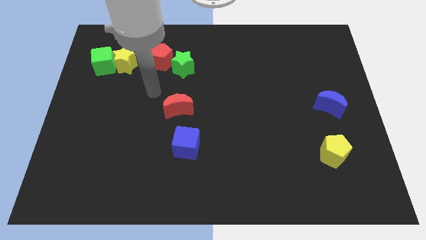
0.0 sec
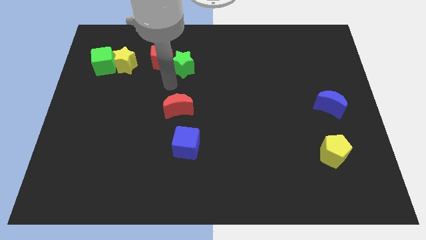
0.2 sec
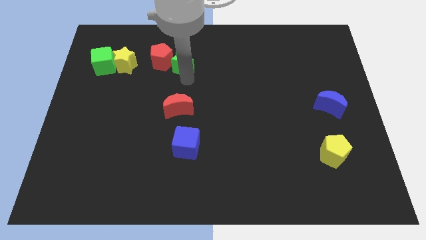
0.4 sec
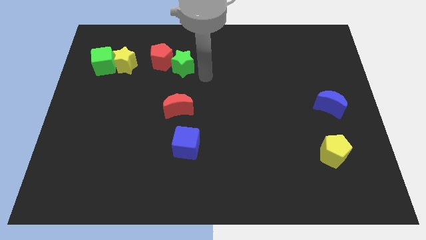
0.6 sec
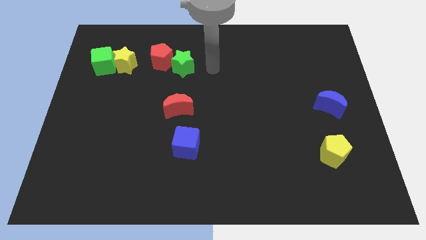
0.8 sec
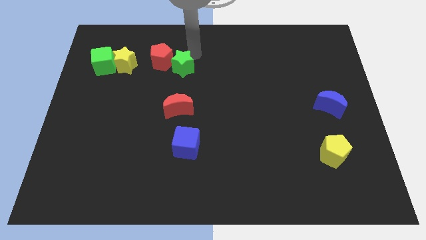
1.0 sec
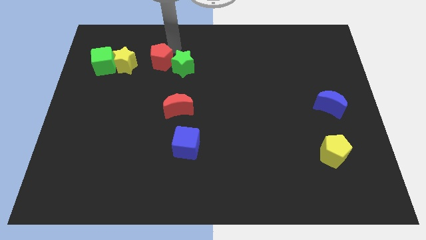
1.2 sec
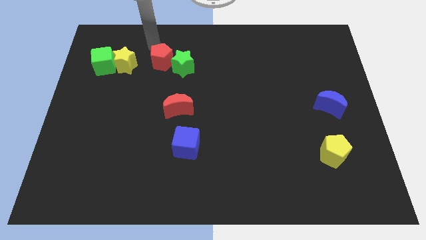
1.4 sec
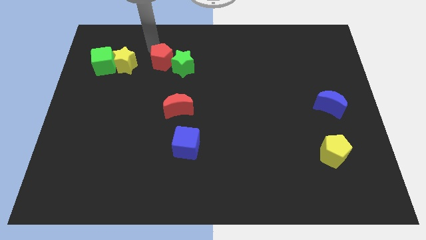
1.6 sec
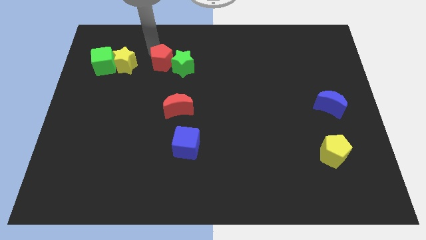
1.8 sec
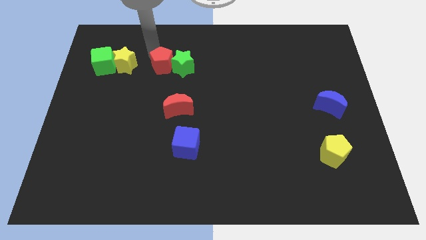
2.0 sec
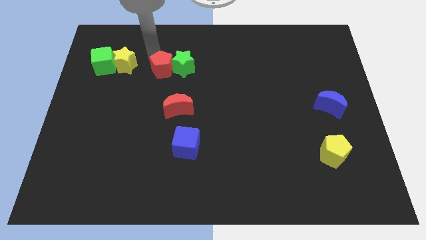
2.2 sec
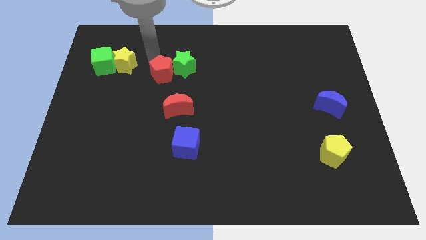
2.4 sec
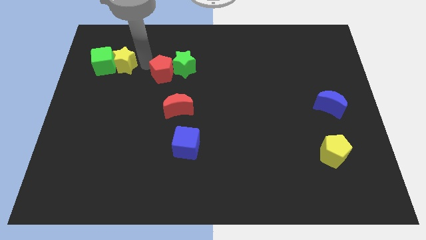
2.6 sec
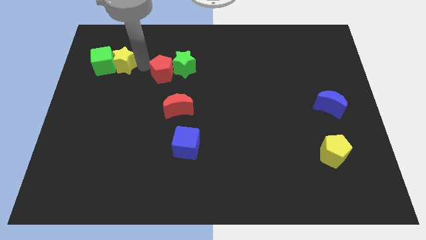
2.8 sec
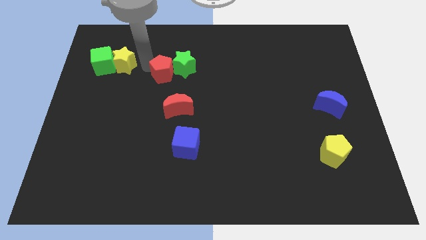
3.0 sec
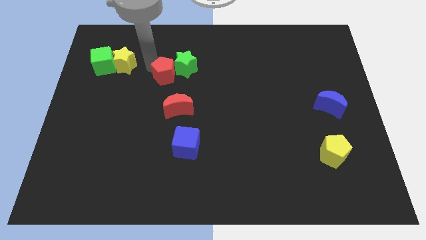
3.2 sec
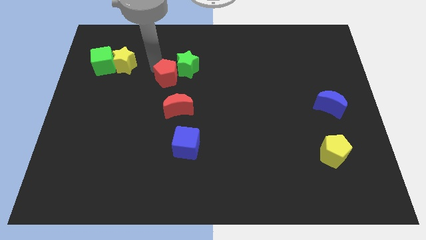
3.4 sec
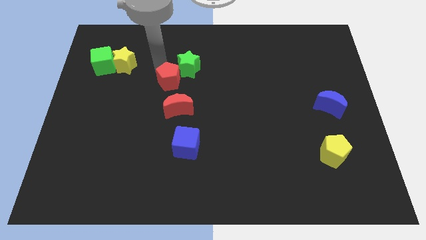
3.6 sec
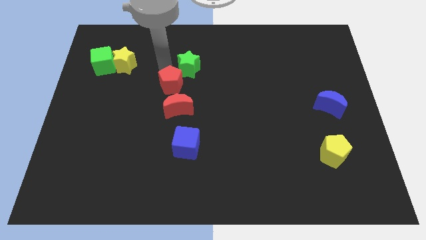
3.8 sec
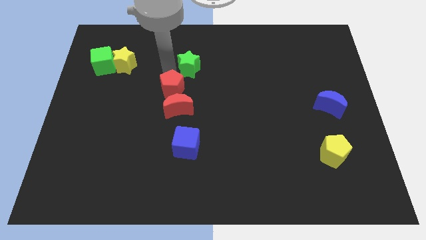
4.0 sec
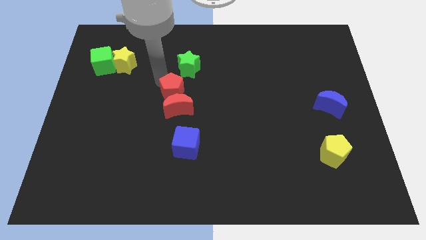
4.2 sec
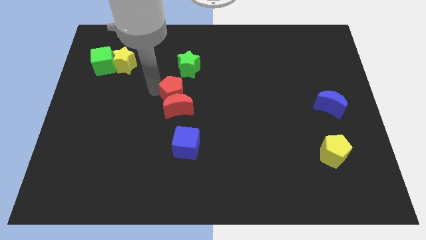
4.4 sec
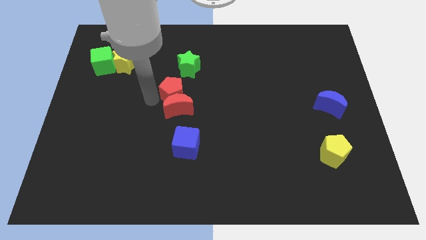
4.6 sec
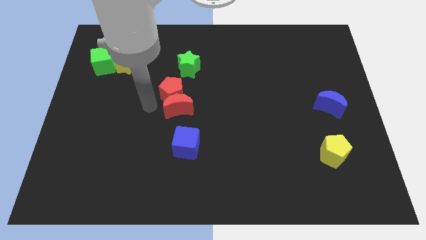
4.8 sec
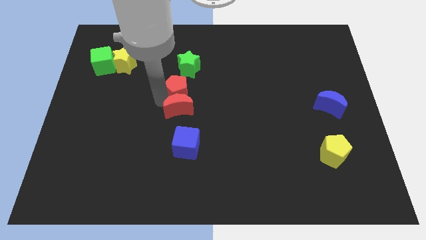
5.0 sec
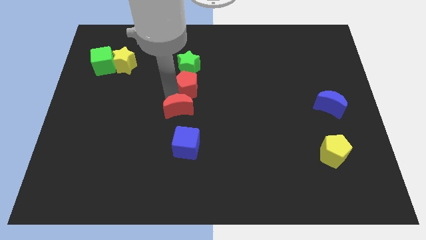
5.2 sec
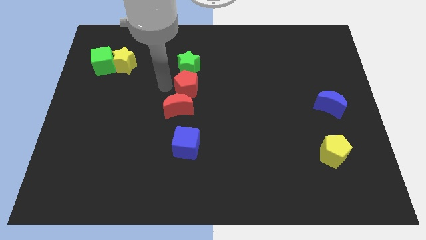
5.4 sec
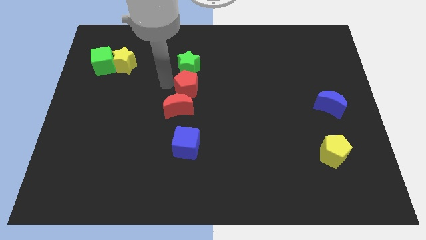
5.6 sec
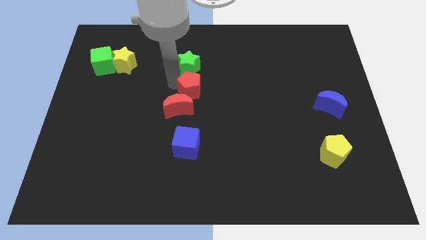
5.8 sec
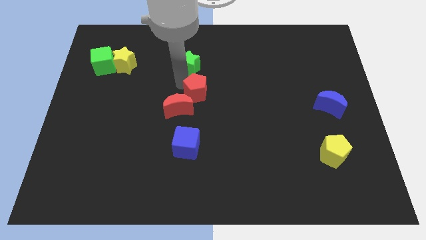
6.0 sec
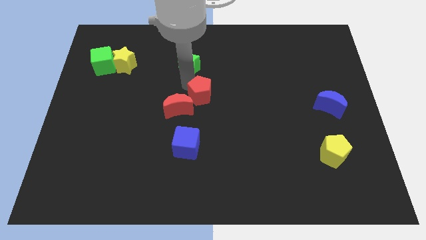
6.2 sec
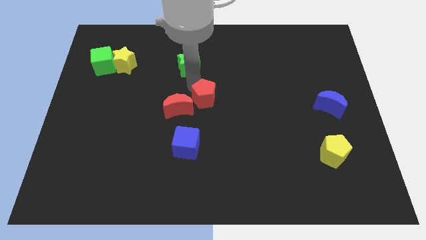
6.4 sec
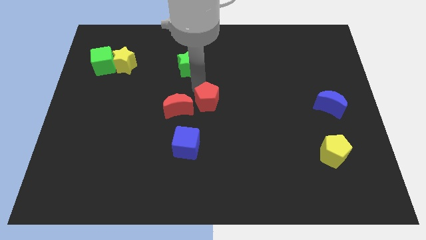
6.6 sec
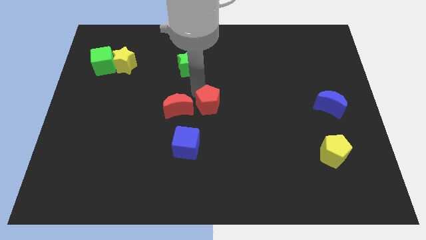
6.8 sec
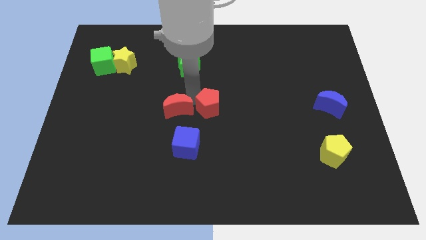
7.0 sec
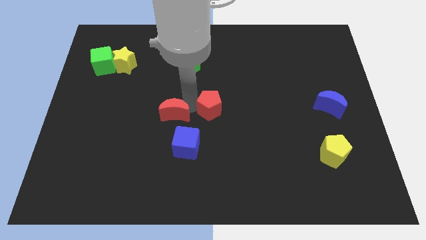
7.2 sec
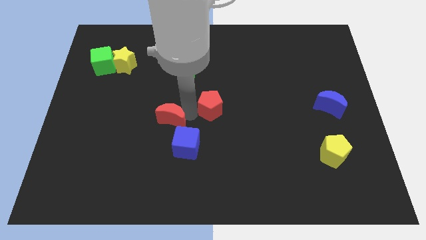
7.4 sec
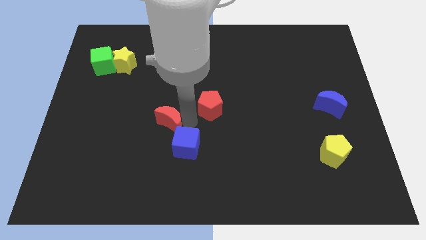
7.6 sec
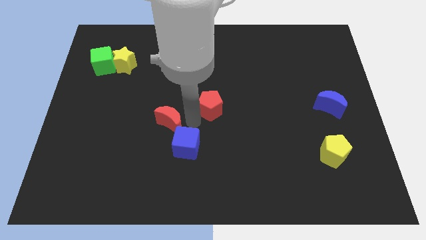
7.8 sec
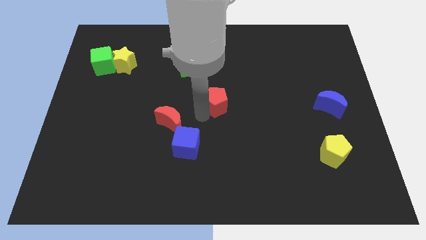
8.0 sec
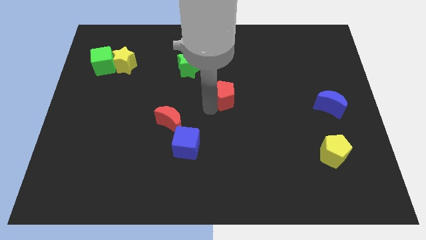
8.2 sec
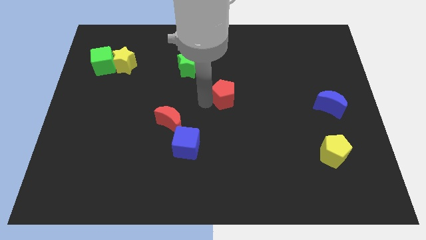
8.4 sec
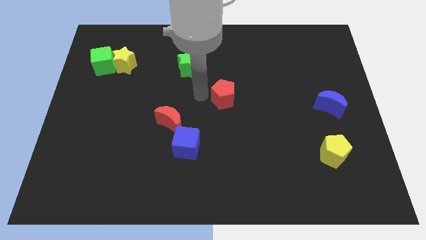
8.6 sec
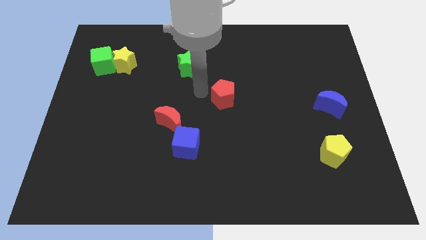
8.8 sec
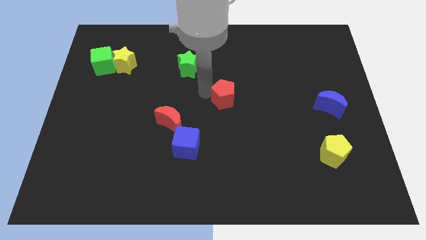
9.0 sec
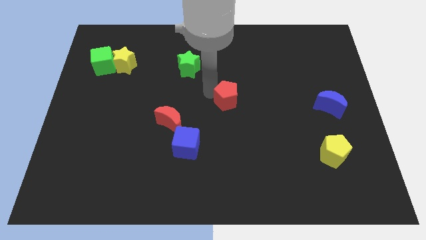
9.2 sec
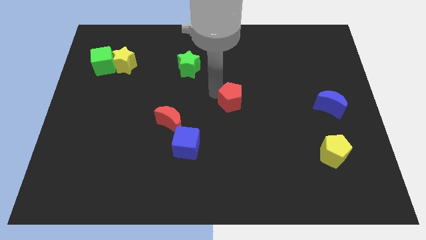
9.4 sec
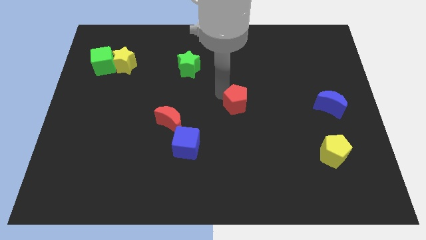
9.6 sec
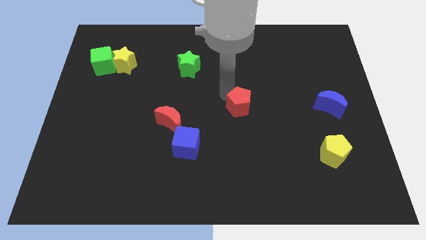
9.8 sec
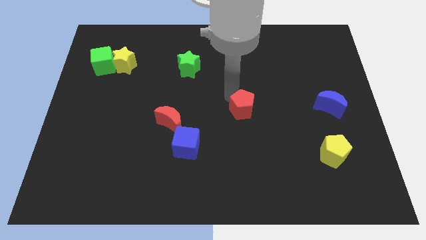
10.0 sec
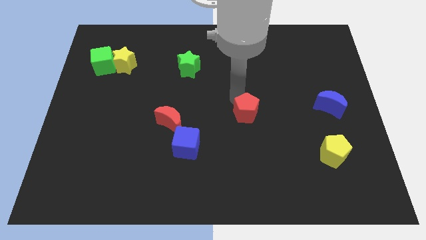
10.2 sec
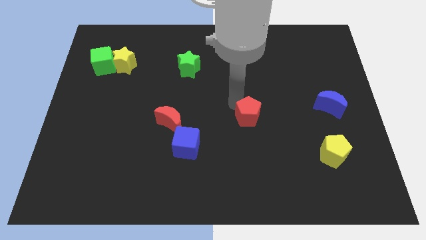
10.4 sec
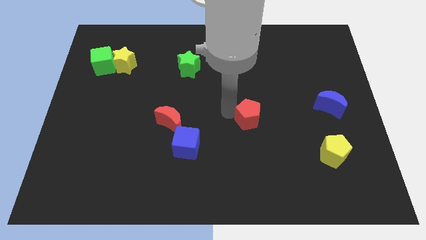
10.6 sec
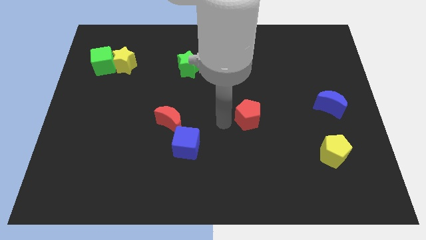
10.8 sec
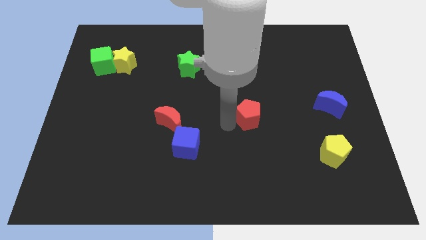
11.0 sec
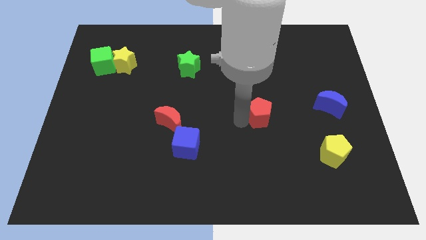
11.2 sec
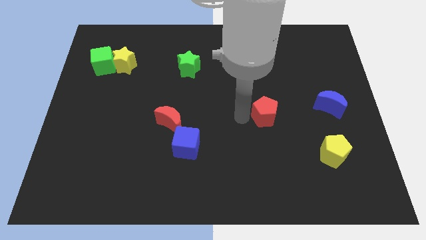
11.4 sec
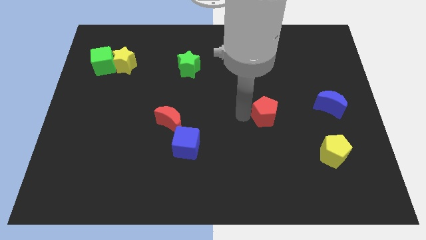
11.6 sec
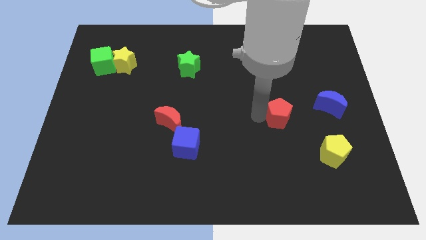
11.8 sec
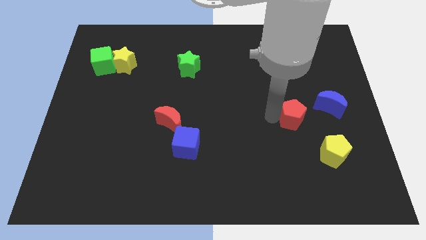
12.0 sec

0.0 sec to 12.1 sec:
move the red pentagon to the bottom left side of the blue moon

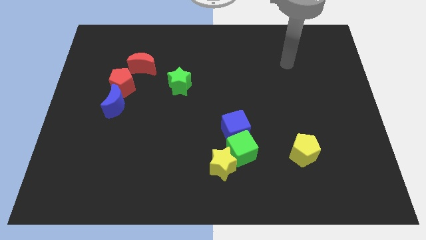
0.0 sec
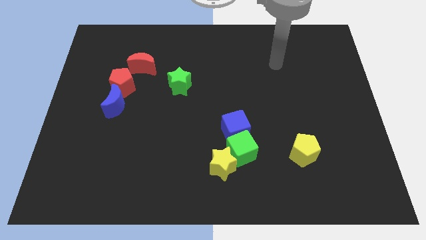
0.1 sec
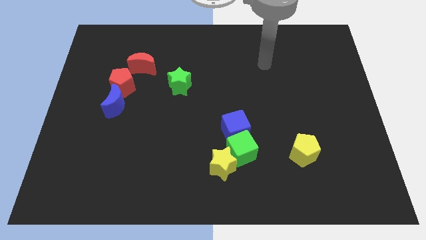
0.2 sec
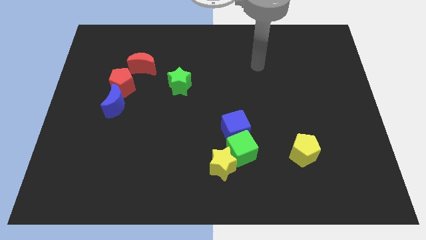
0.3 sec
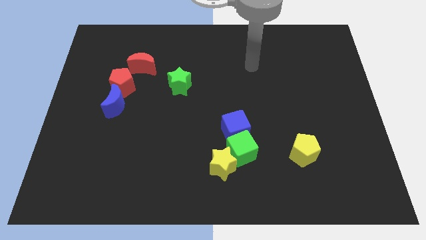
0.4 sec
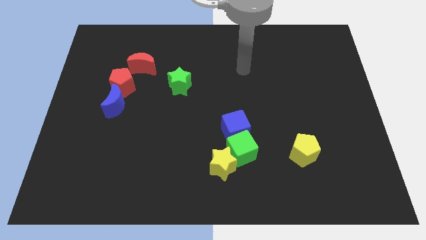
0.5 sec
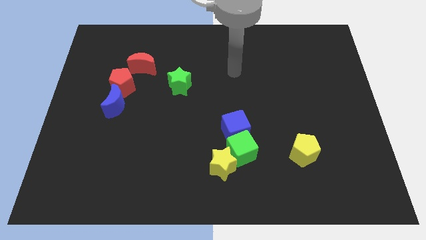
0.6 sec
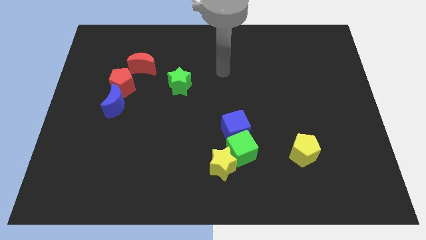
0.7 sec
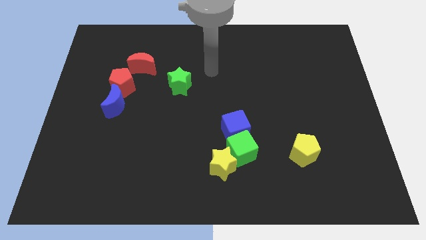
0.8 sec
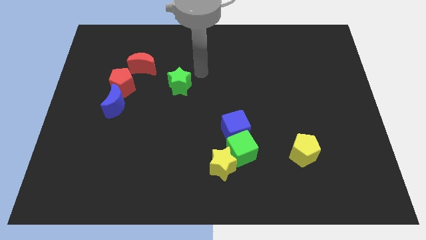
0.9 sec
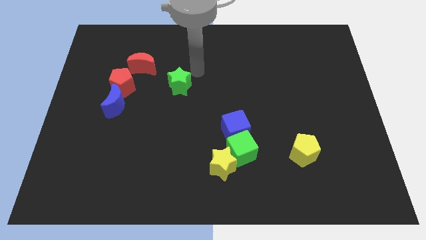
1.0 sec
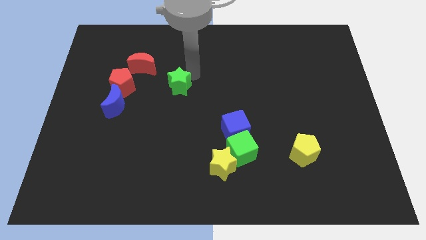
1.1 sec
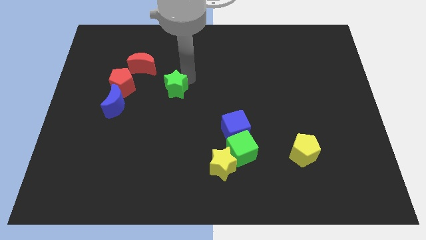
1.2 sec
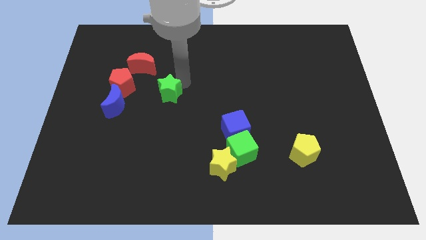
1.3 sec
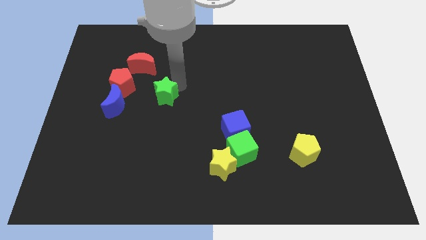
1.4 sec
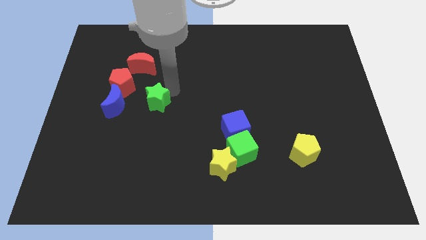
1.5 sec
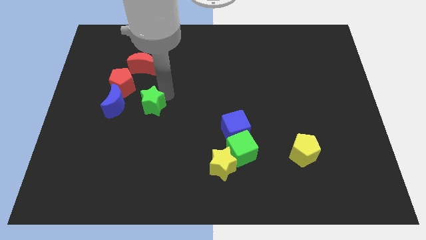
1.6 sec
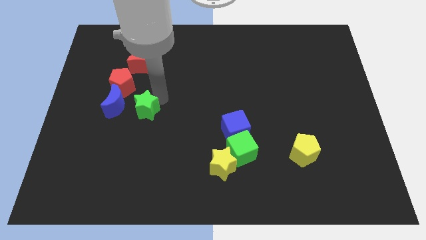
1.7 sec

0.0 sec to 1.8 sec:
put the green star to the bottom right of the blue moon
